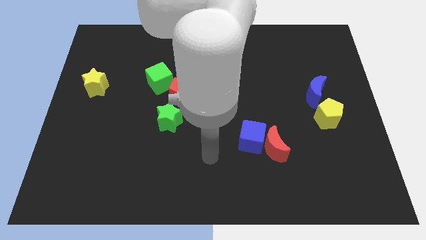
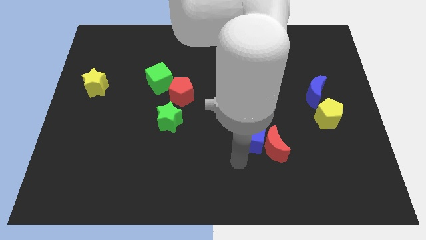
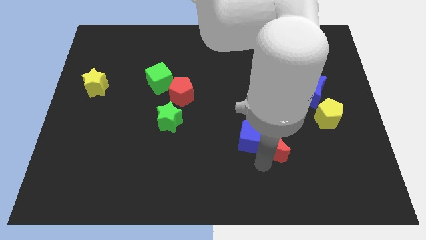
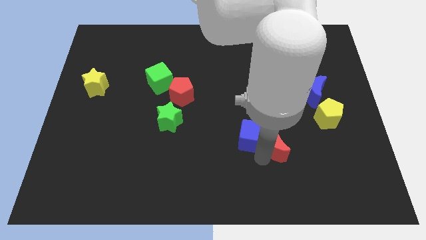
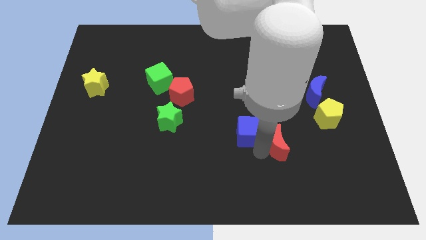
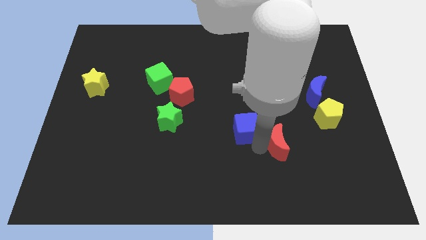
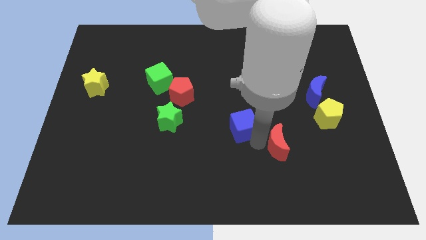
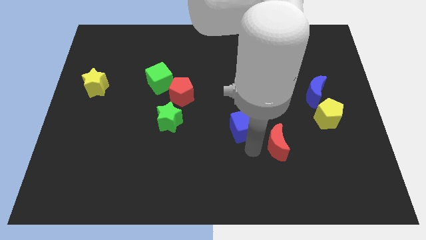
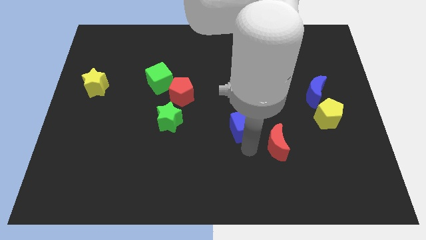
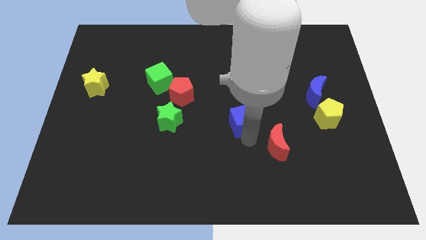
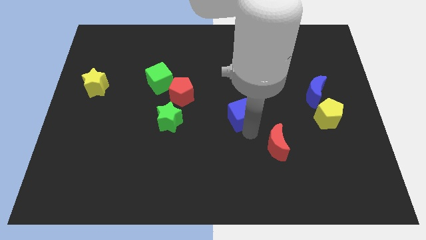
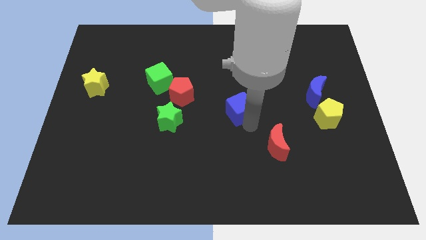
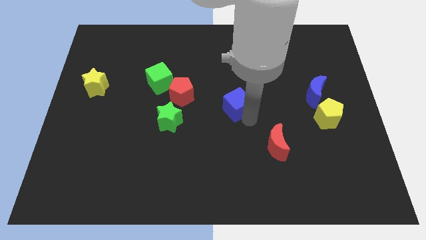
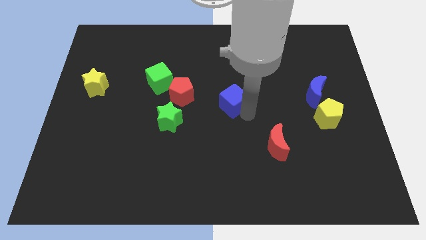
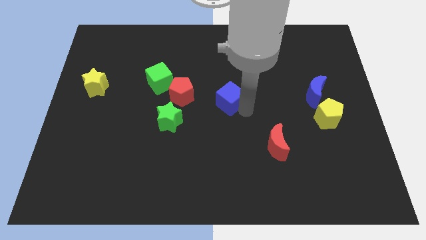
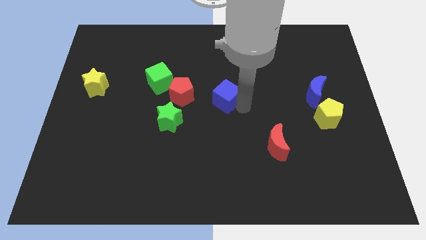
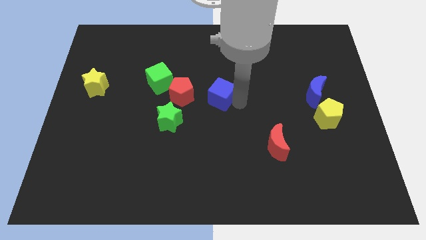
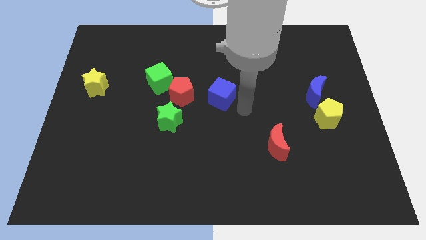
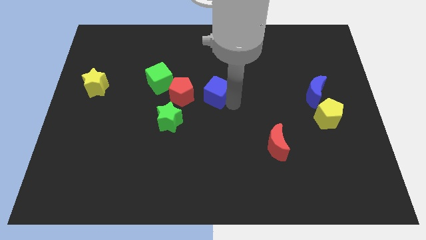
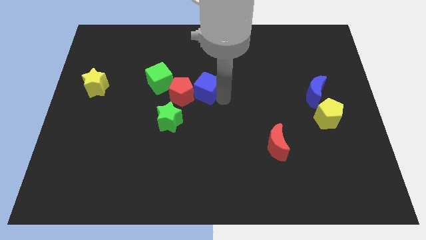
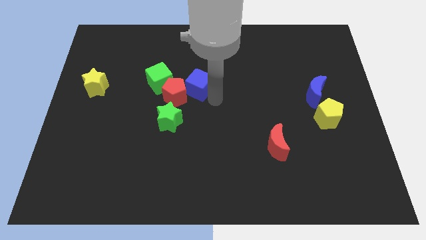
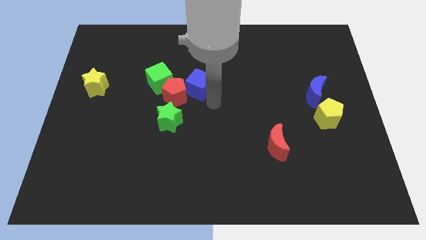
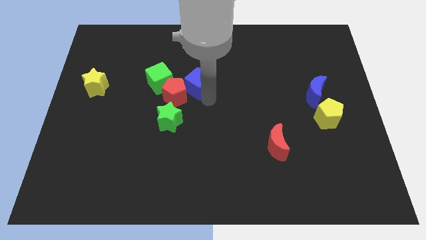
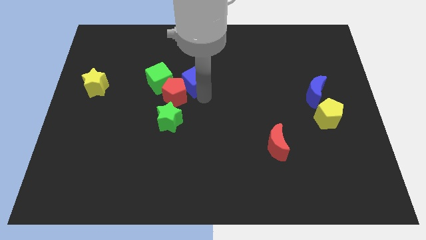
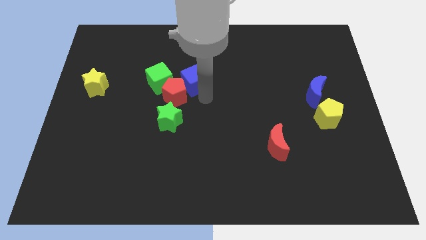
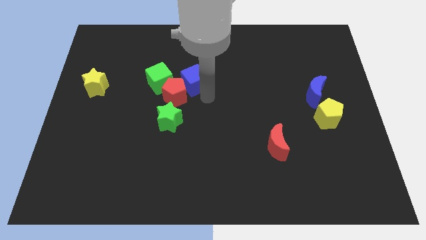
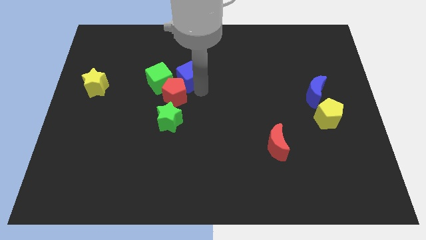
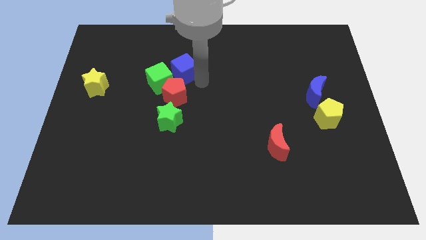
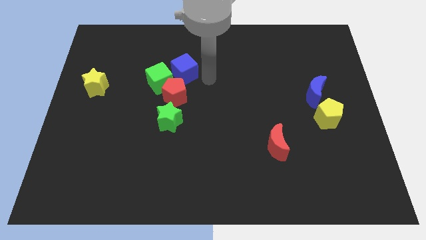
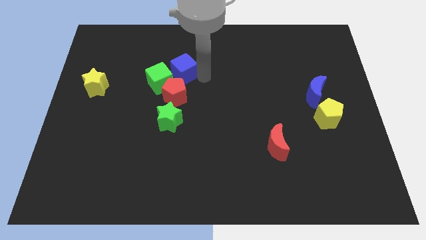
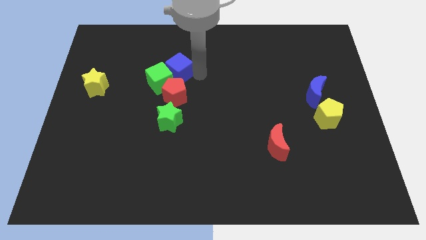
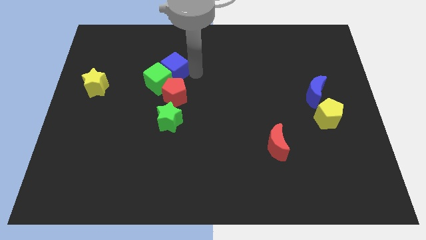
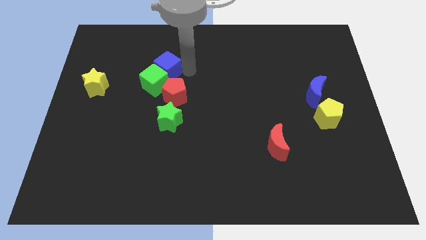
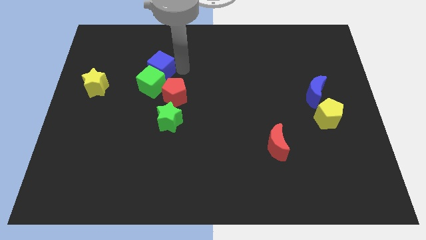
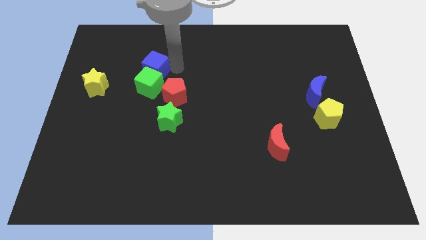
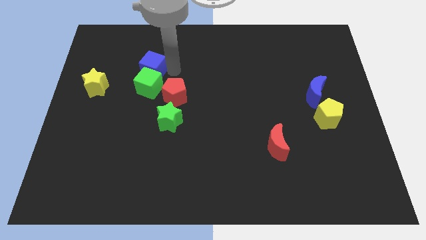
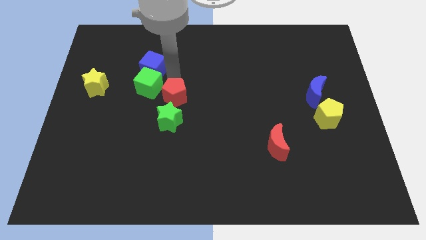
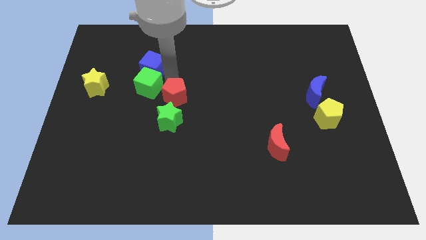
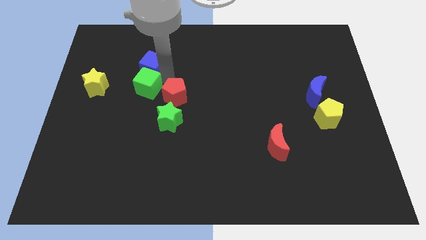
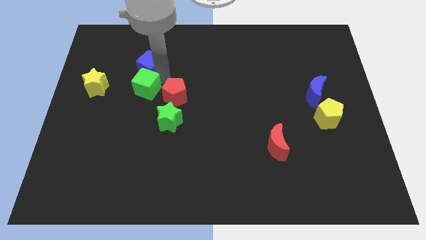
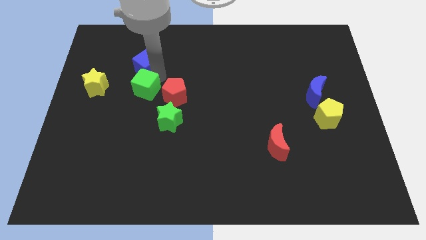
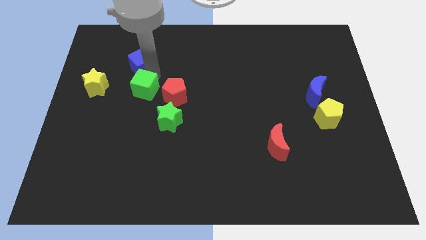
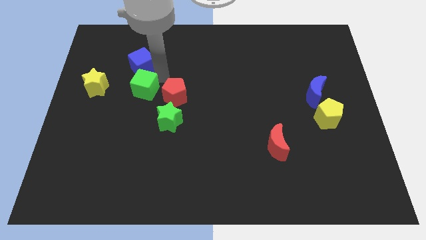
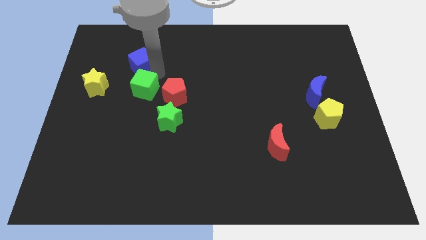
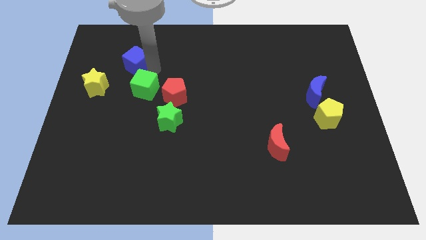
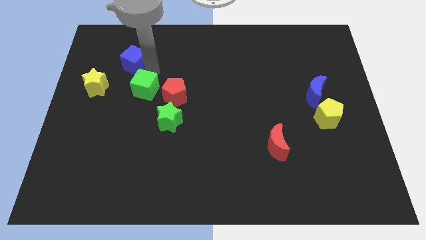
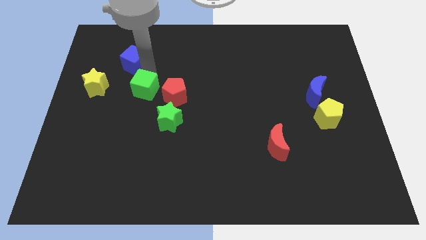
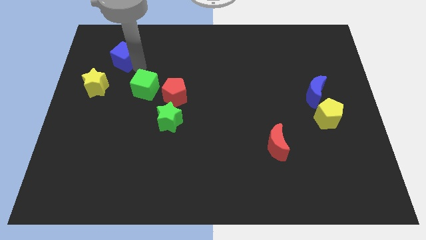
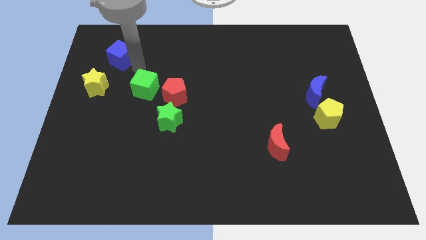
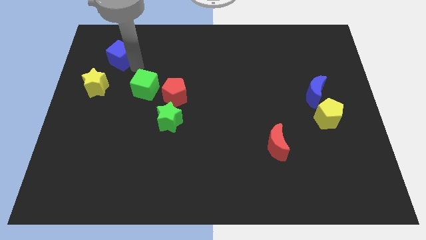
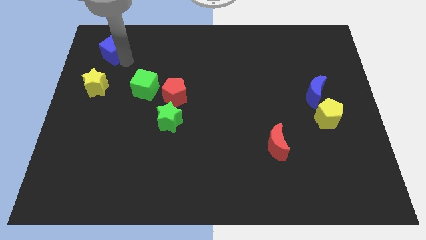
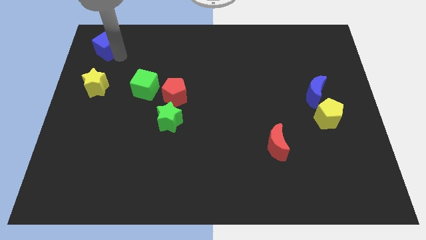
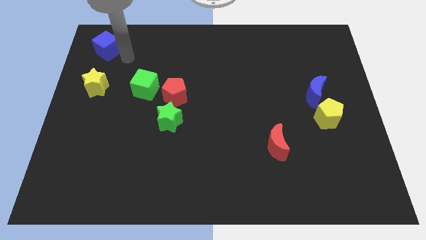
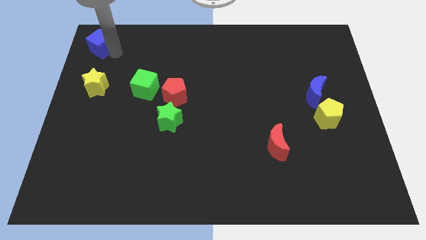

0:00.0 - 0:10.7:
slide the blue cube to the top left of the board

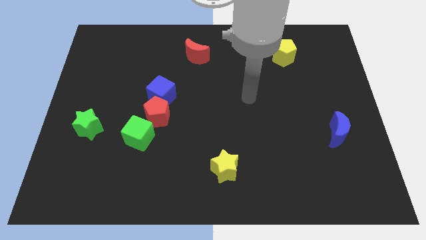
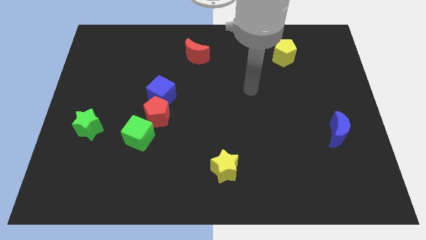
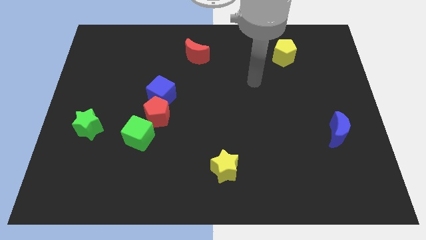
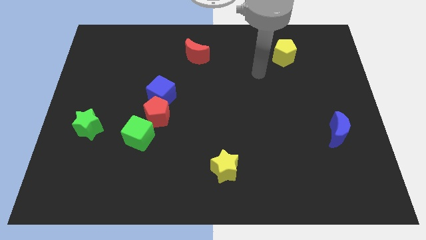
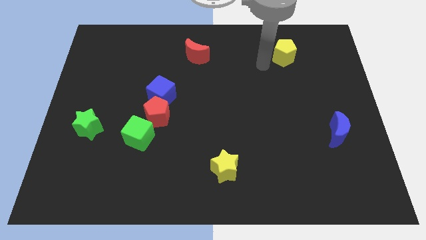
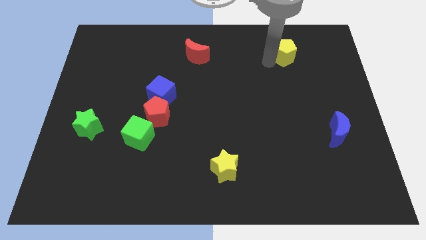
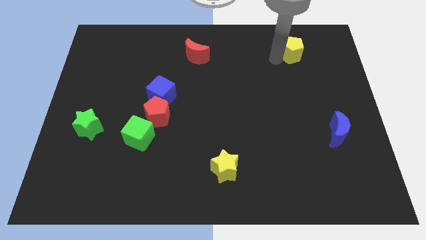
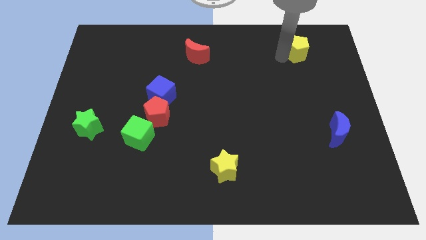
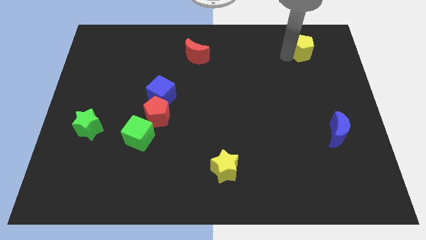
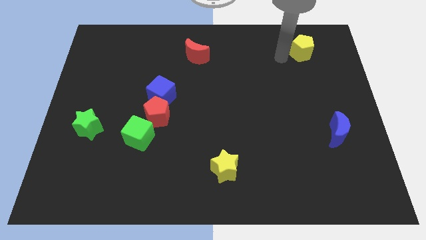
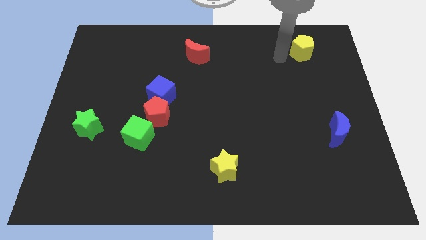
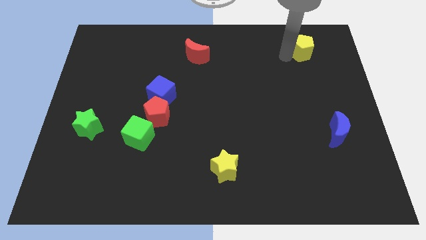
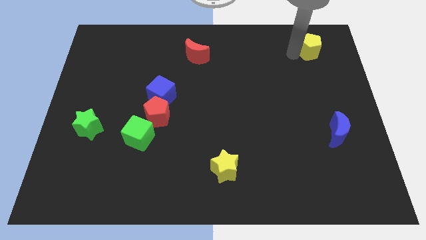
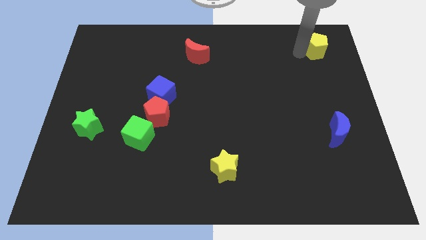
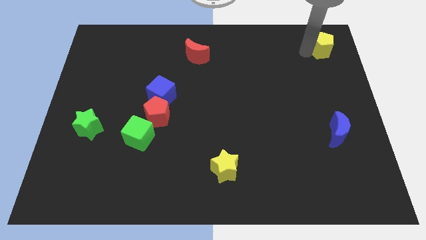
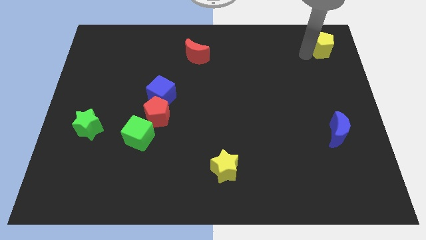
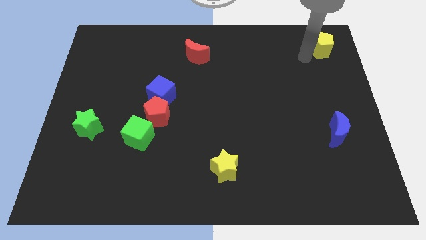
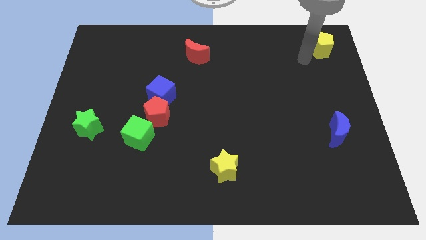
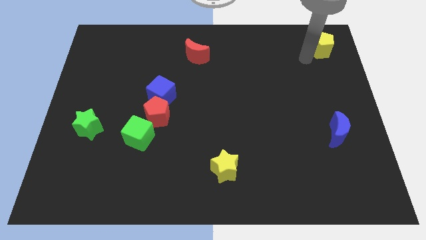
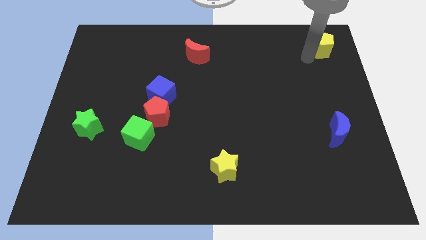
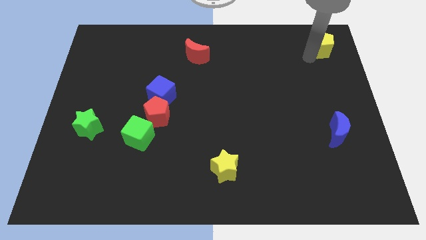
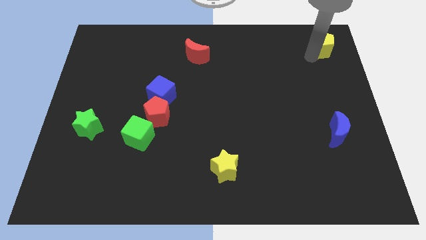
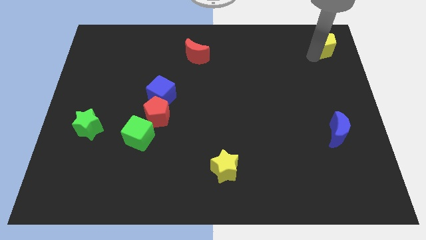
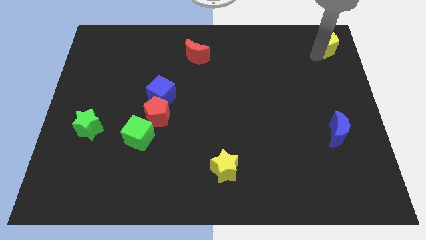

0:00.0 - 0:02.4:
push the yellow pentagon to the top right
